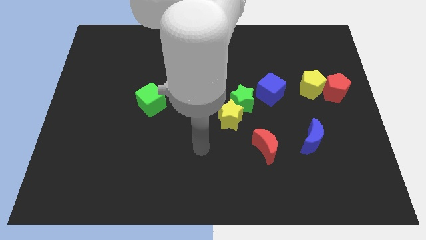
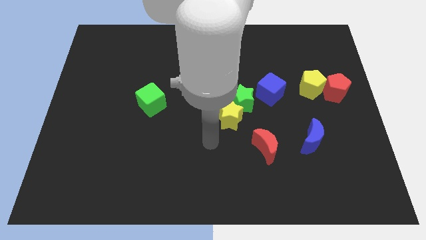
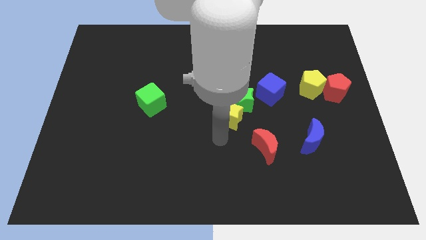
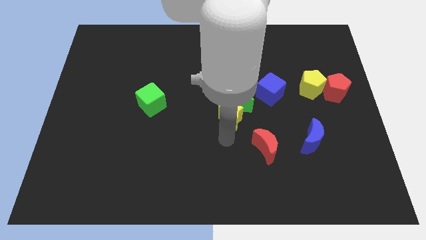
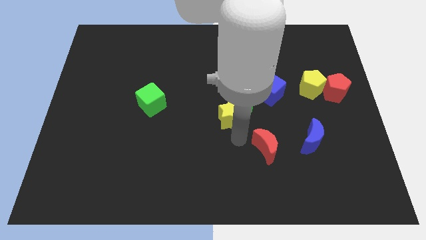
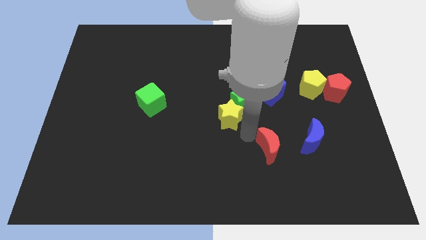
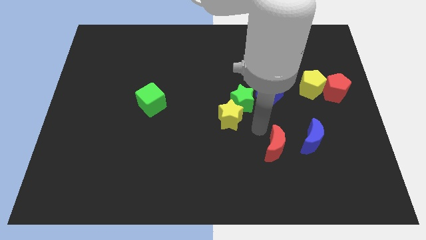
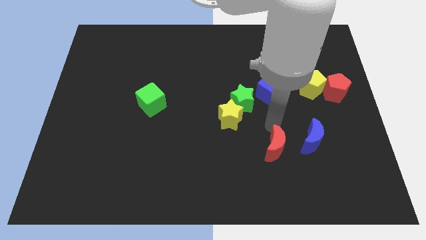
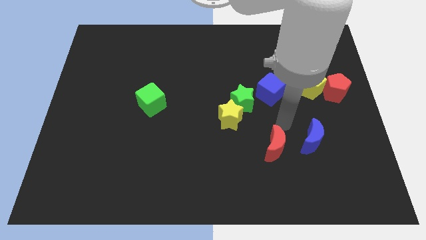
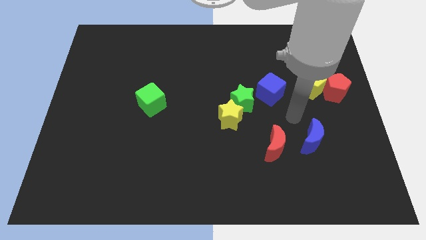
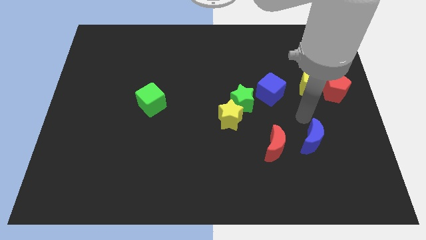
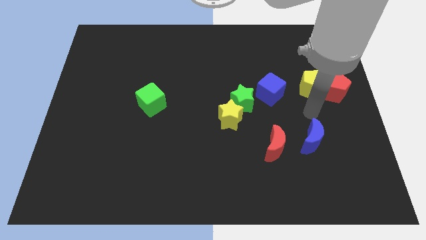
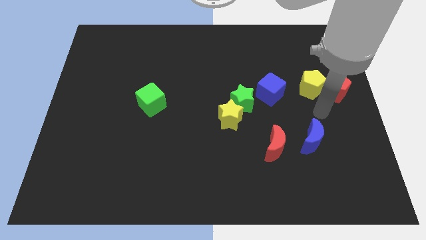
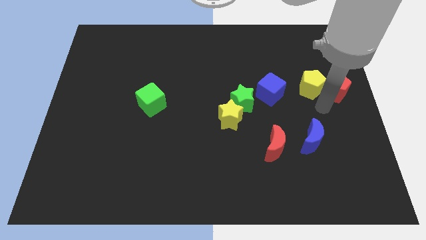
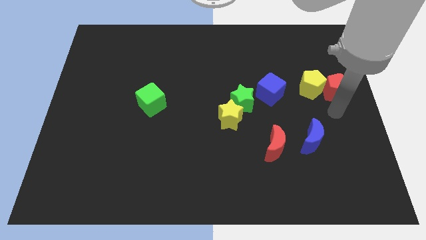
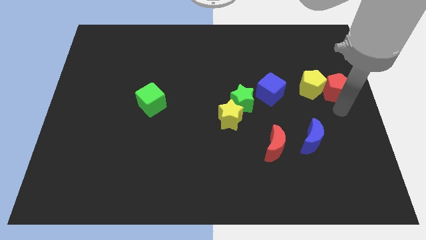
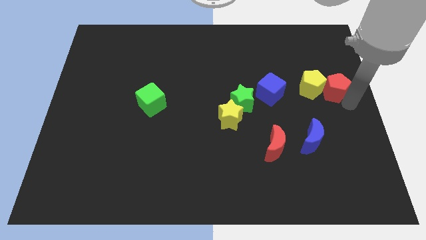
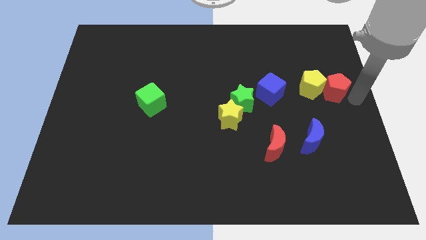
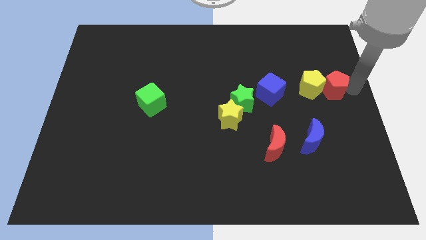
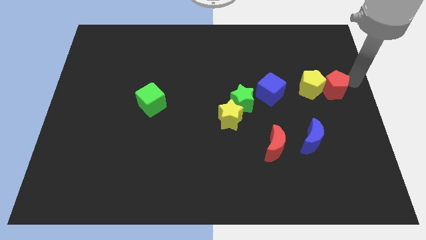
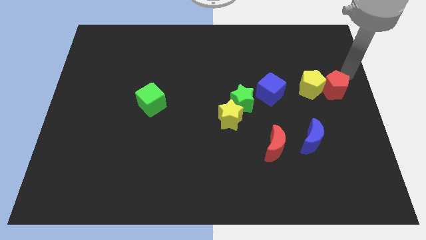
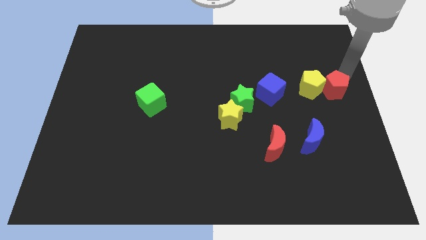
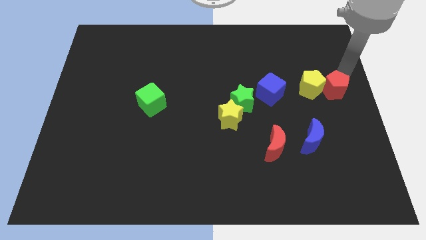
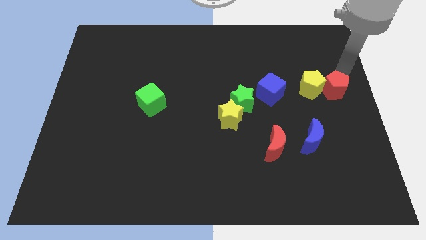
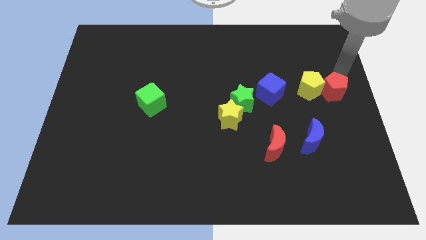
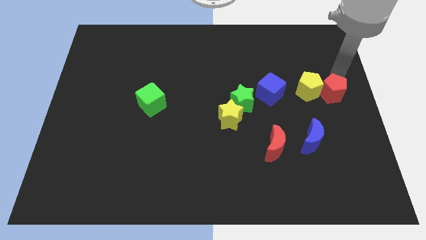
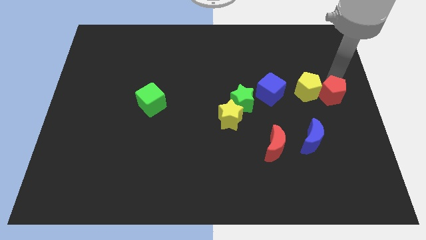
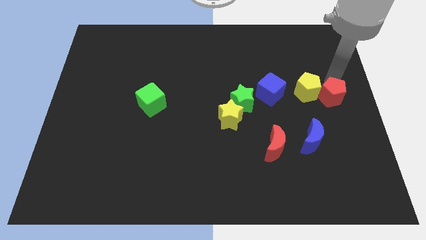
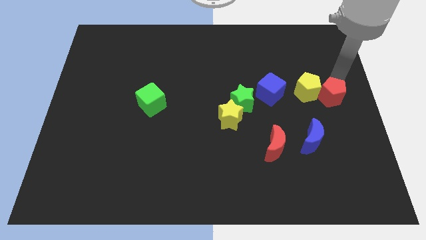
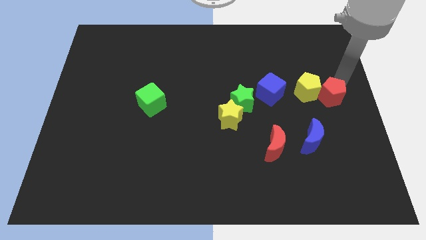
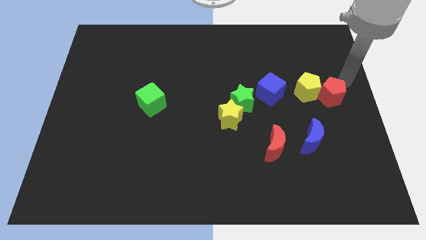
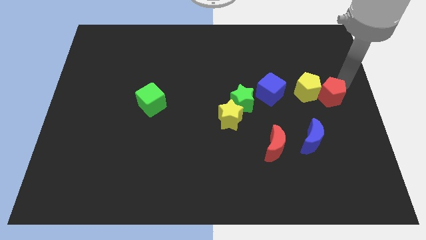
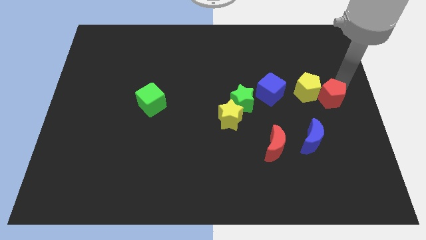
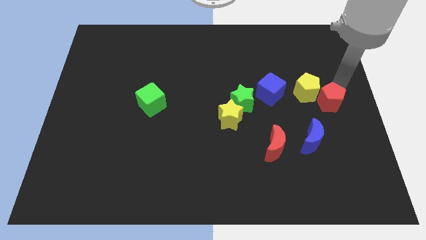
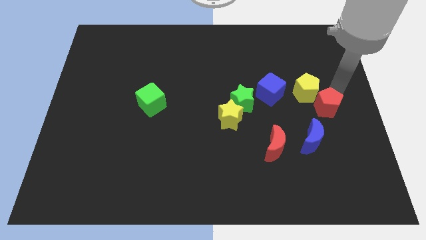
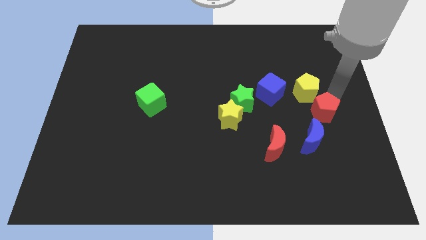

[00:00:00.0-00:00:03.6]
push the red pentagon downwards and to the left a little

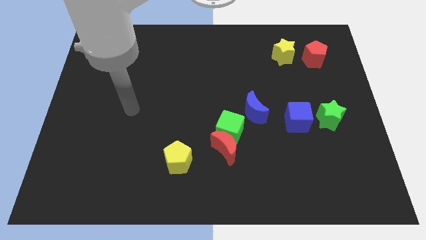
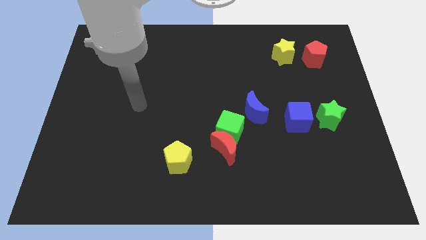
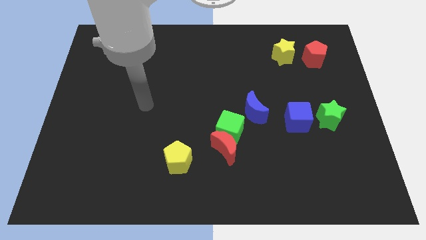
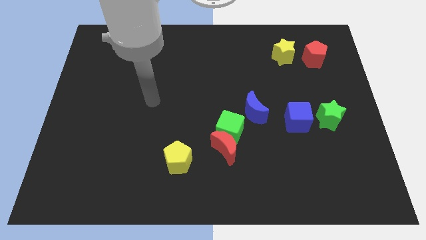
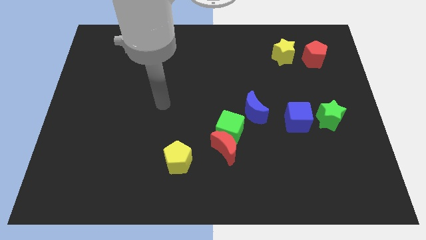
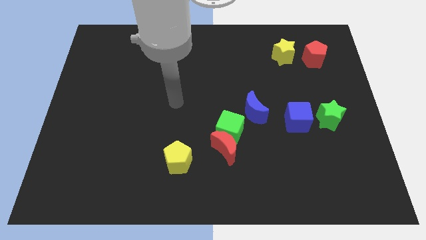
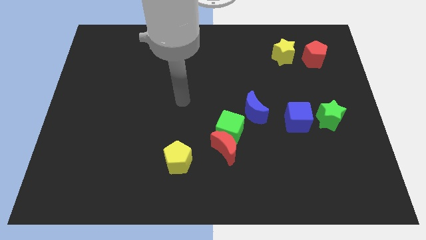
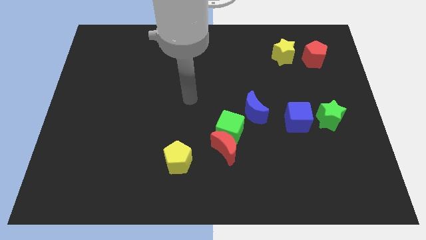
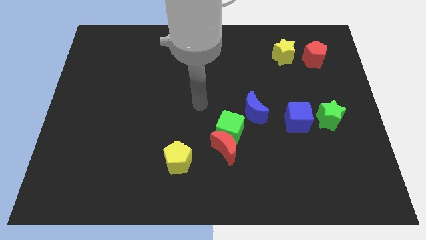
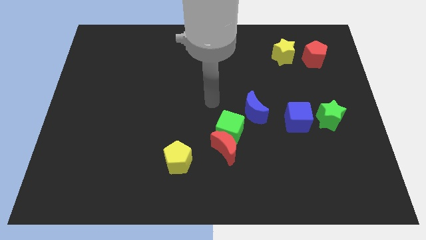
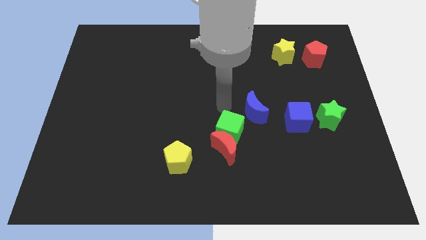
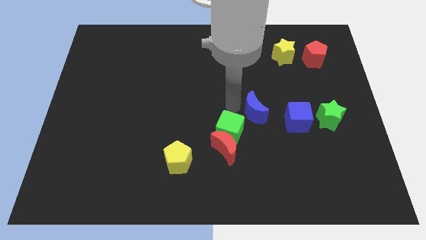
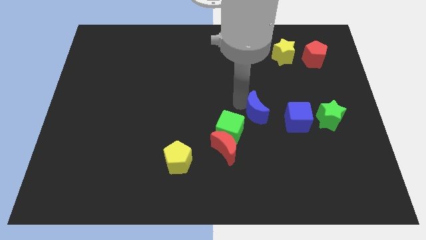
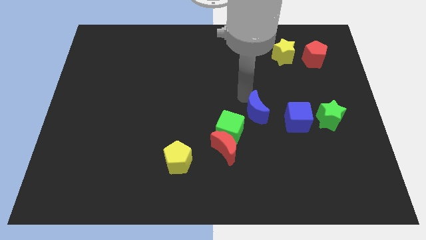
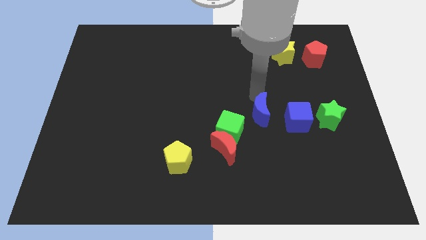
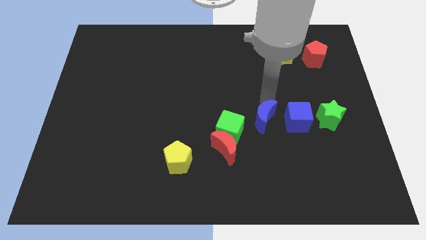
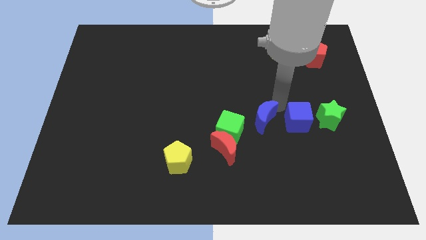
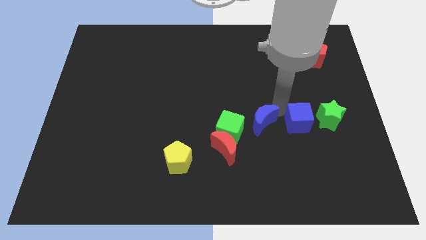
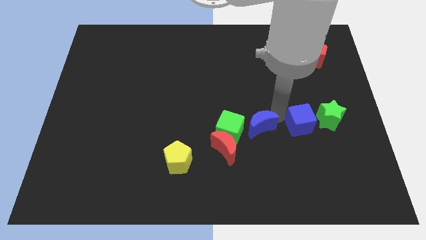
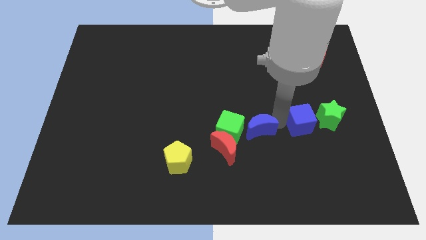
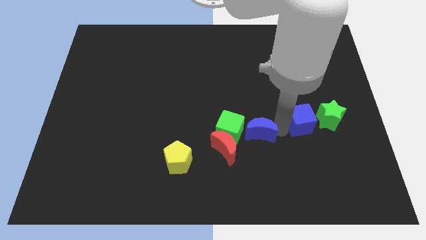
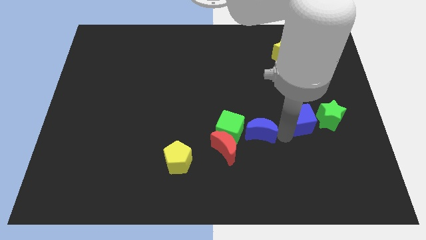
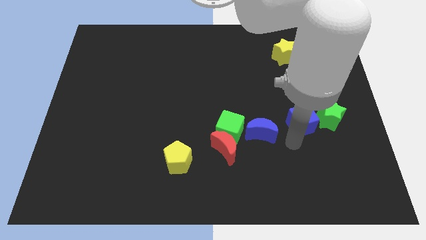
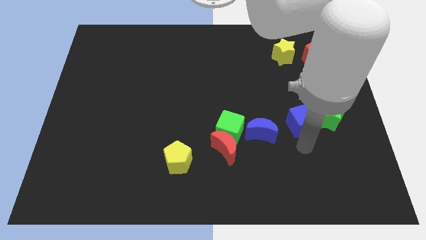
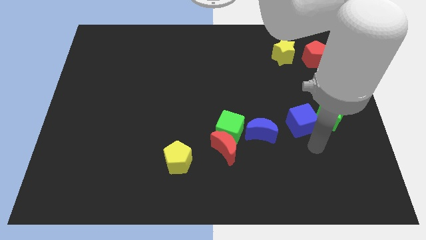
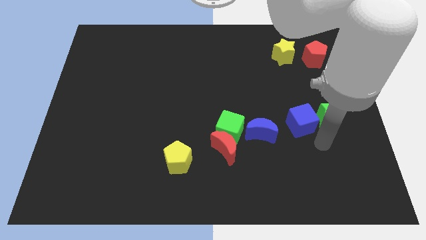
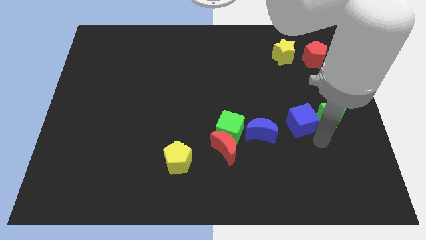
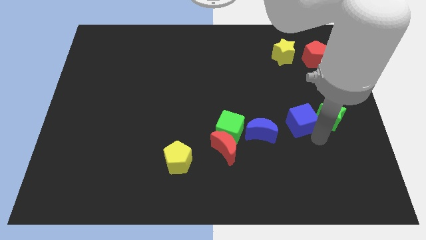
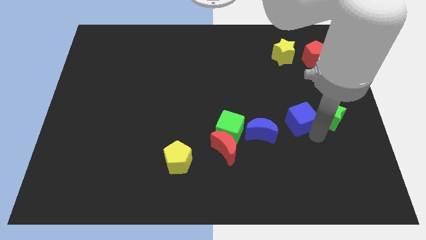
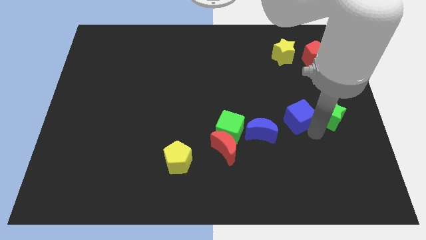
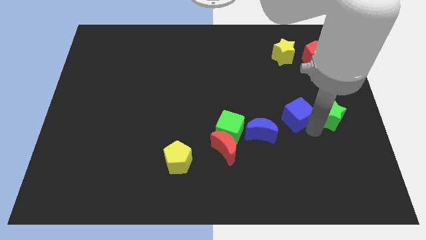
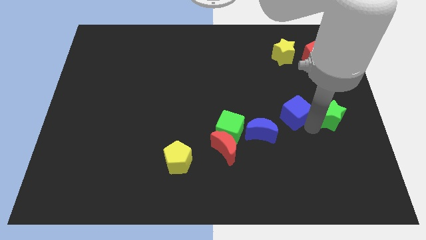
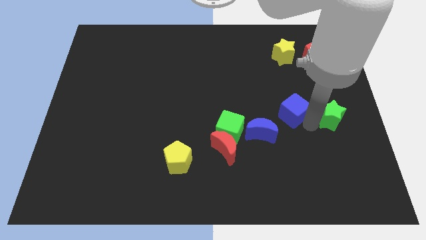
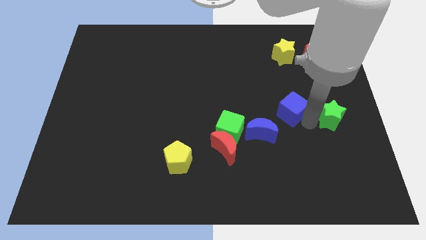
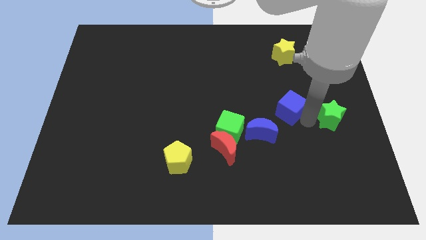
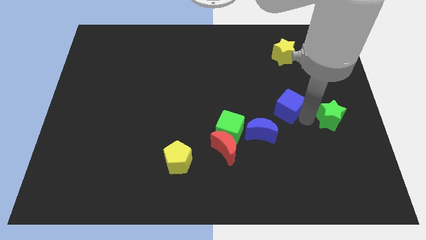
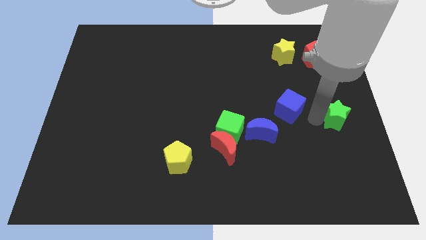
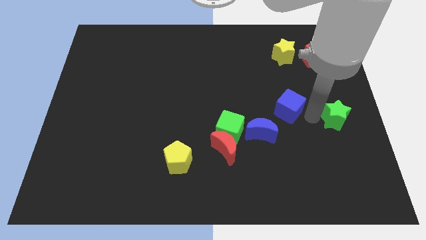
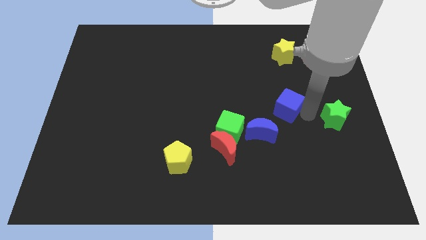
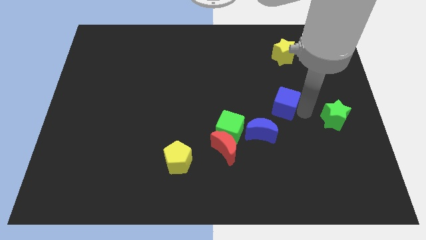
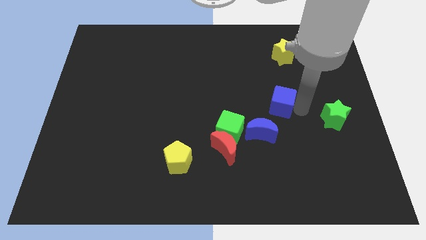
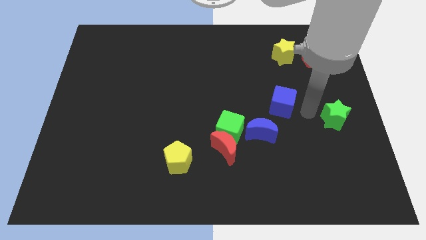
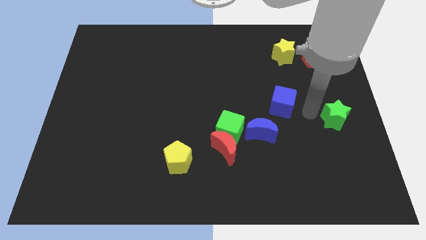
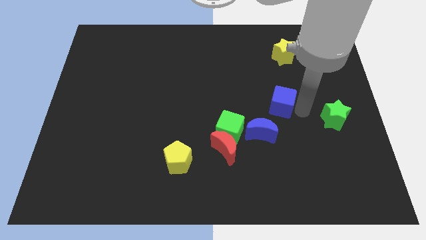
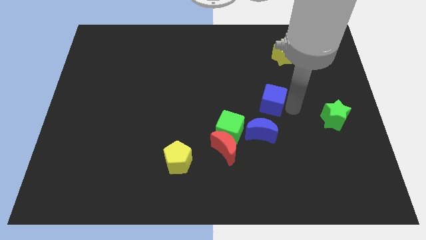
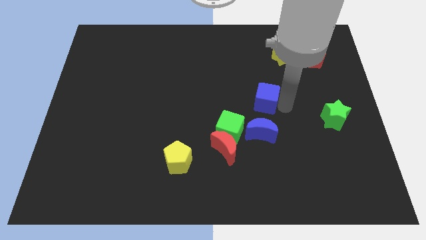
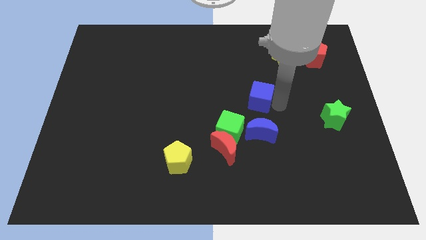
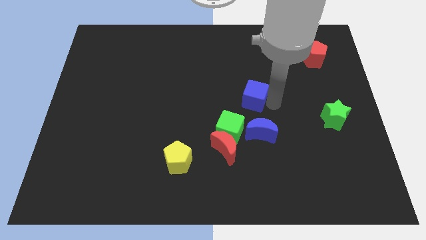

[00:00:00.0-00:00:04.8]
slightly push the blue cube left
